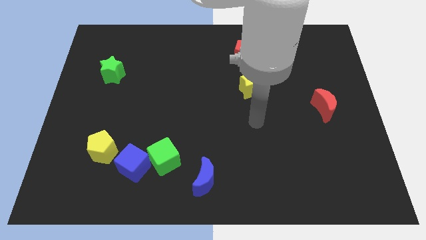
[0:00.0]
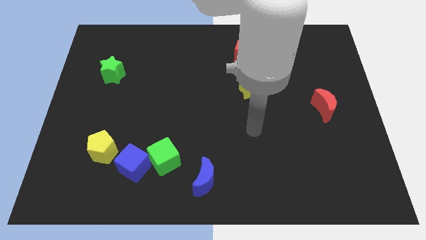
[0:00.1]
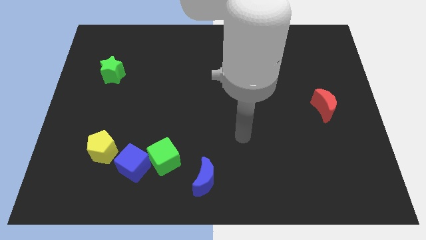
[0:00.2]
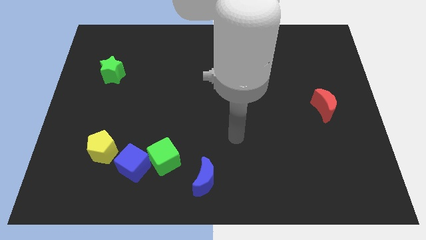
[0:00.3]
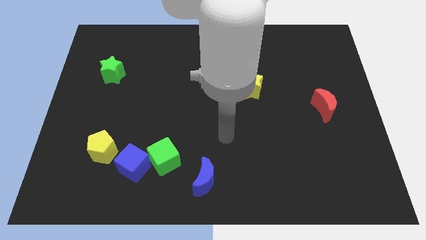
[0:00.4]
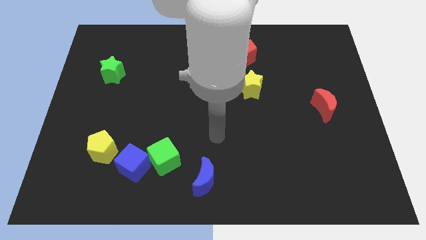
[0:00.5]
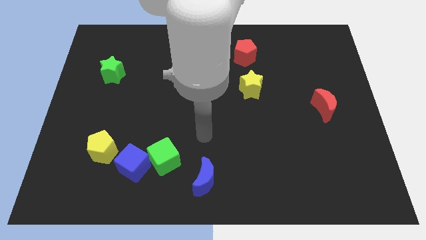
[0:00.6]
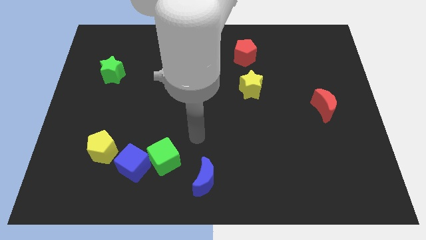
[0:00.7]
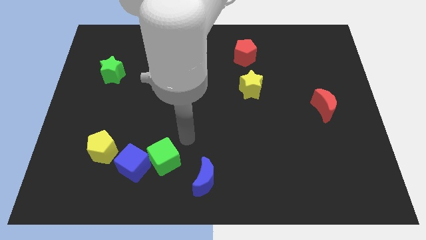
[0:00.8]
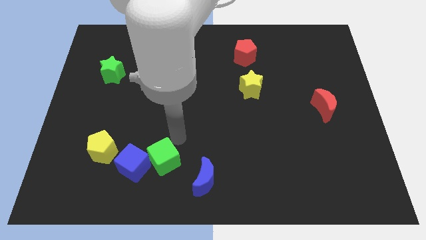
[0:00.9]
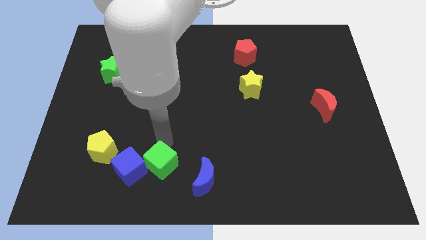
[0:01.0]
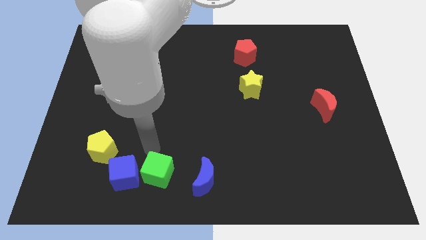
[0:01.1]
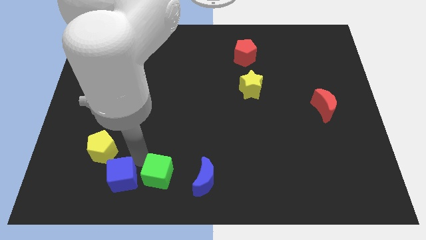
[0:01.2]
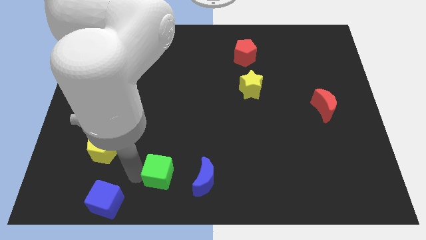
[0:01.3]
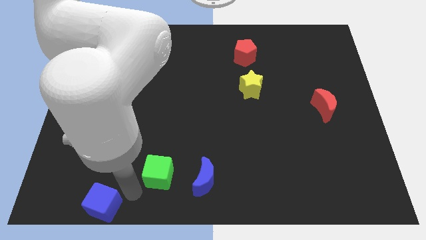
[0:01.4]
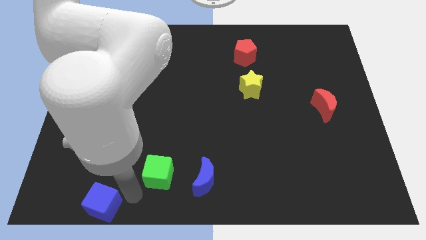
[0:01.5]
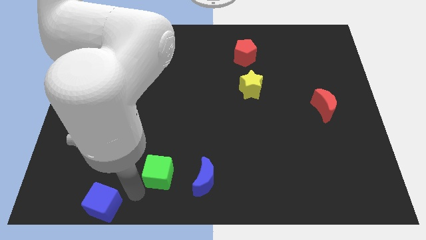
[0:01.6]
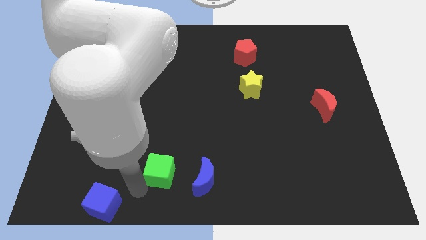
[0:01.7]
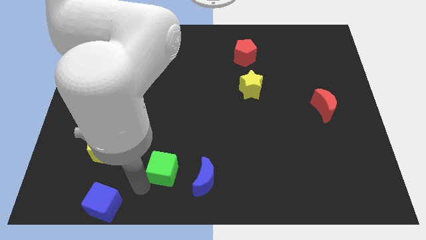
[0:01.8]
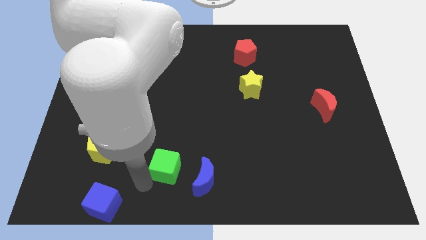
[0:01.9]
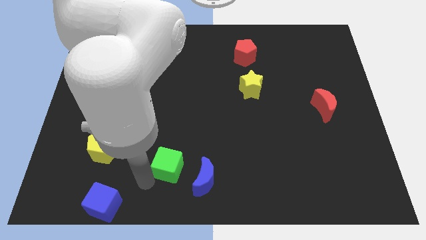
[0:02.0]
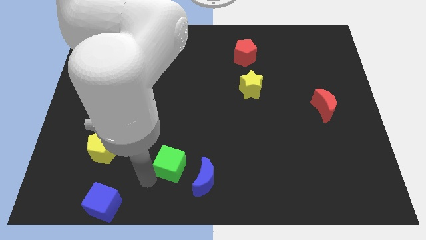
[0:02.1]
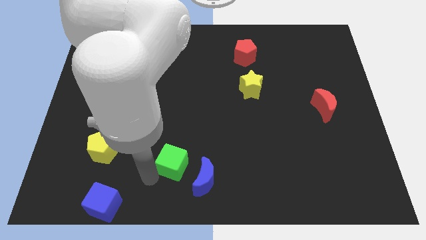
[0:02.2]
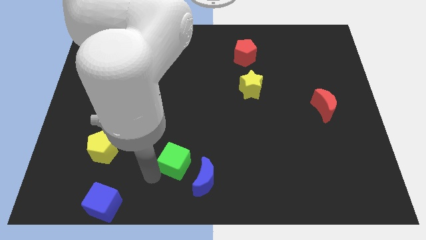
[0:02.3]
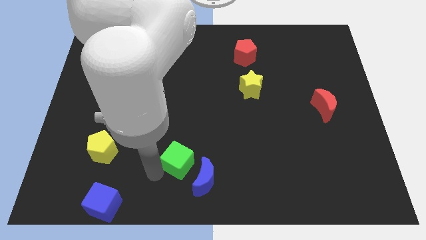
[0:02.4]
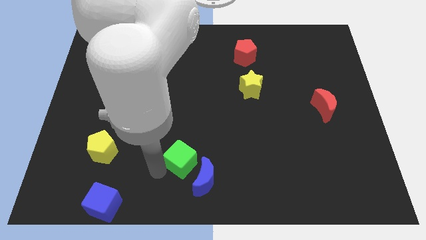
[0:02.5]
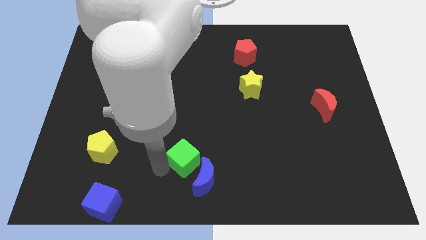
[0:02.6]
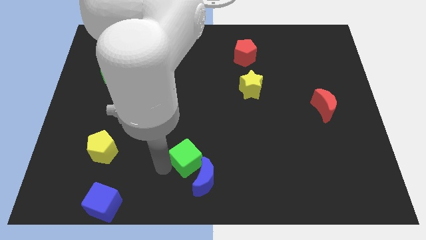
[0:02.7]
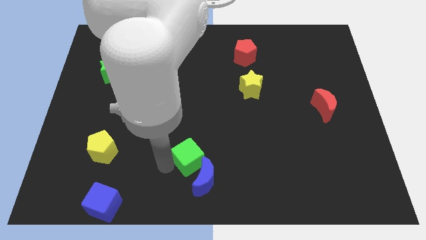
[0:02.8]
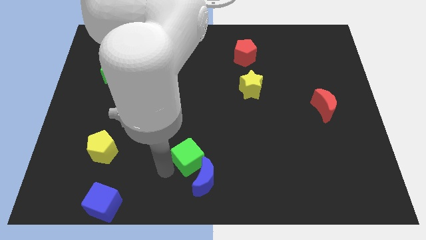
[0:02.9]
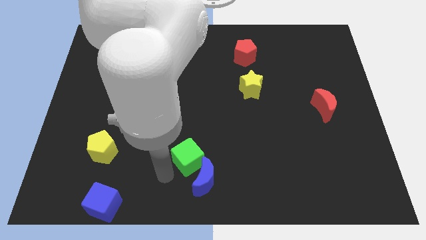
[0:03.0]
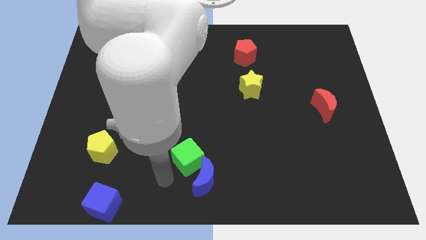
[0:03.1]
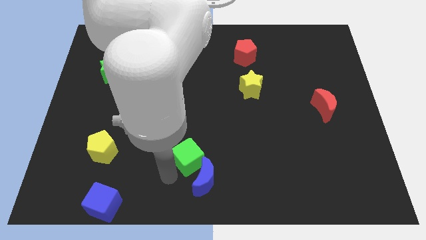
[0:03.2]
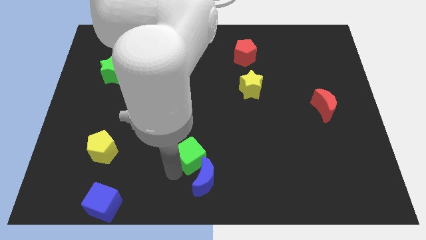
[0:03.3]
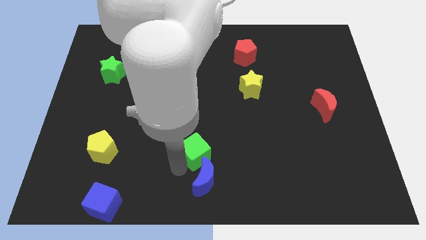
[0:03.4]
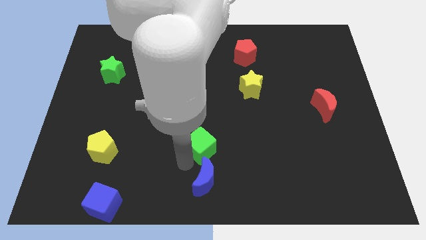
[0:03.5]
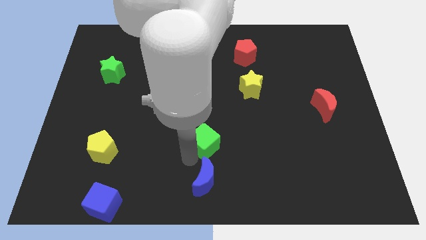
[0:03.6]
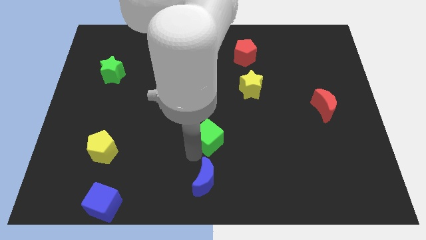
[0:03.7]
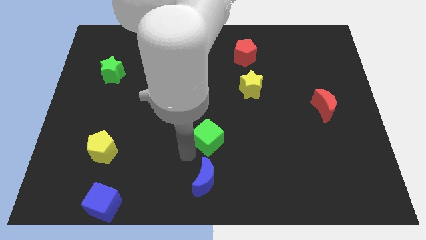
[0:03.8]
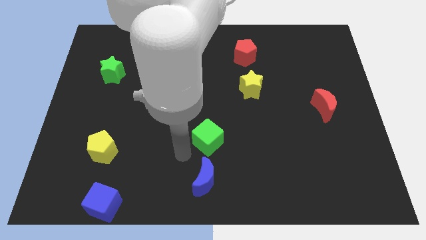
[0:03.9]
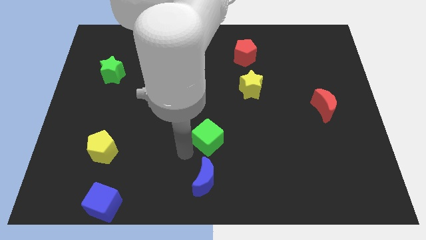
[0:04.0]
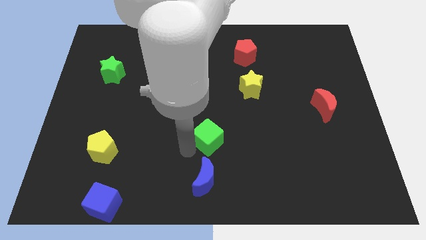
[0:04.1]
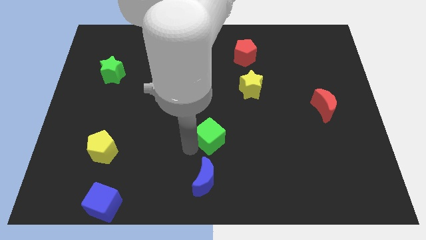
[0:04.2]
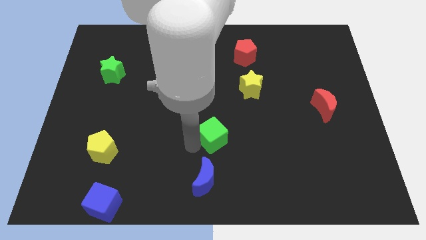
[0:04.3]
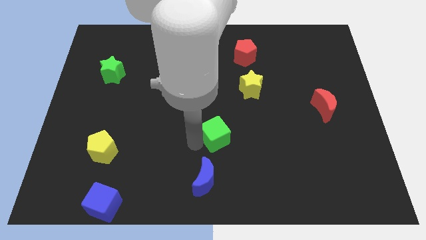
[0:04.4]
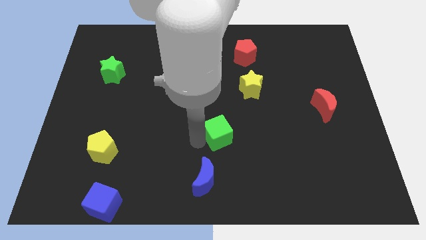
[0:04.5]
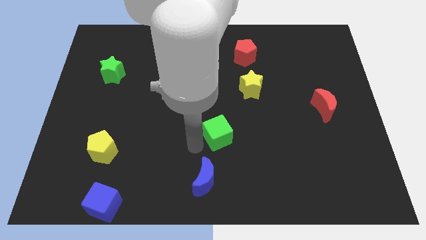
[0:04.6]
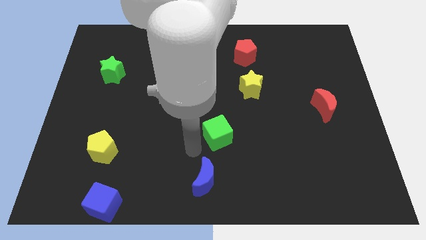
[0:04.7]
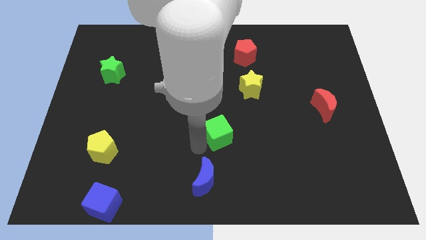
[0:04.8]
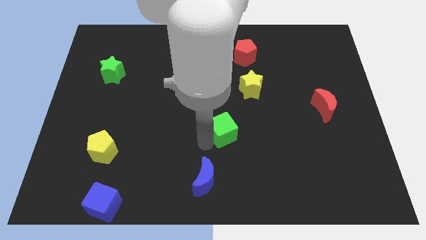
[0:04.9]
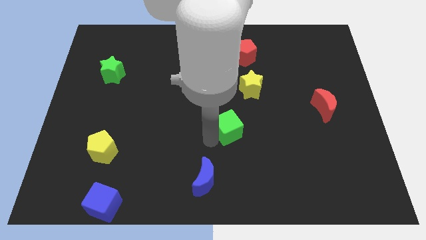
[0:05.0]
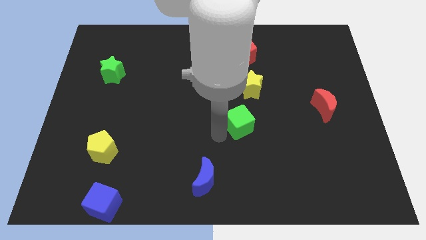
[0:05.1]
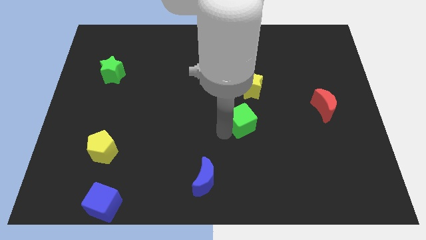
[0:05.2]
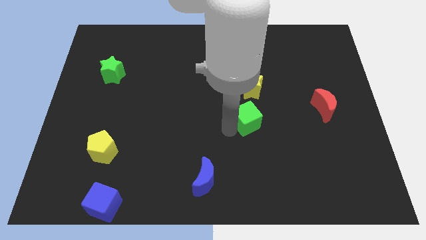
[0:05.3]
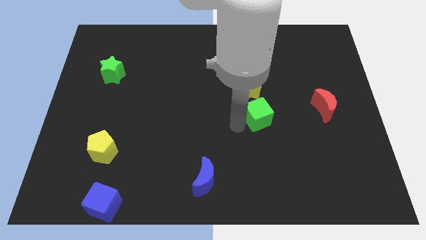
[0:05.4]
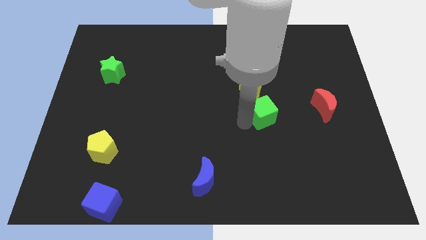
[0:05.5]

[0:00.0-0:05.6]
put the green cube to the left side of the red moon

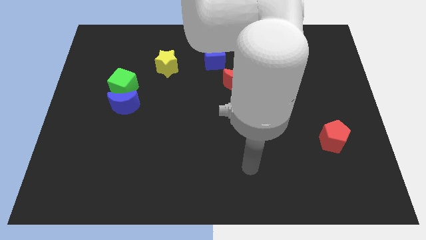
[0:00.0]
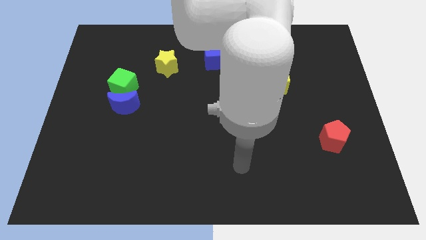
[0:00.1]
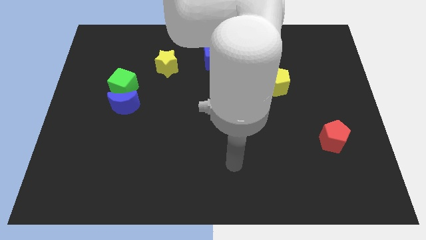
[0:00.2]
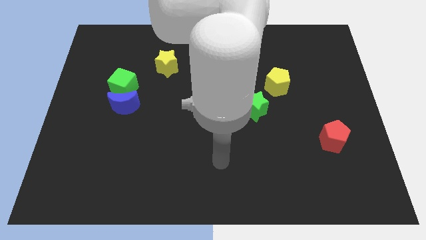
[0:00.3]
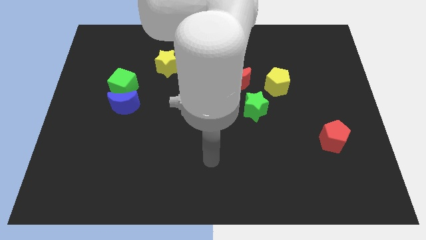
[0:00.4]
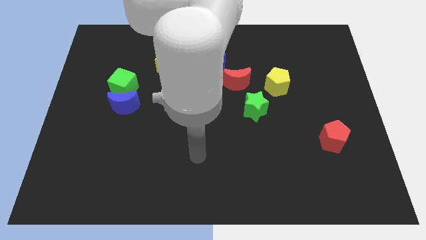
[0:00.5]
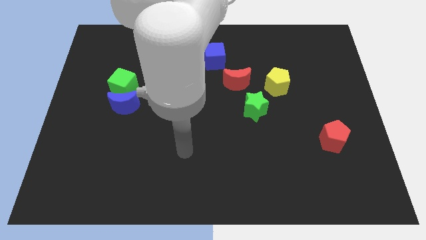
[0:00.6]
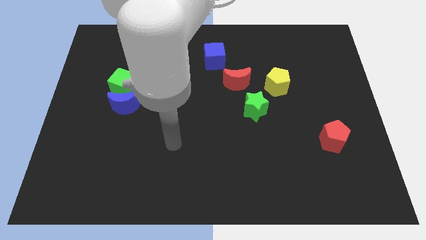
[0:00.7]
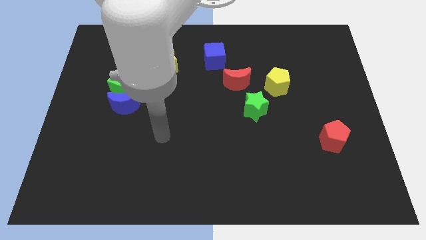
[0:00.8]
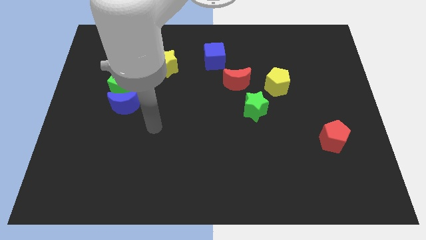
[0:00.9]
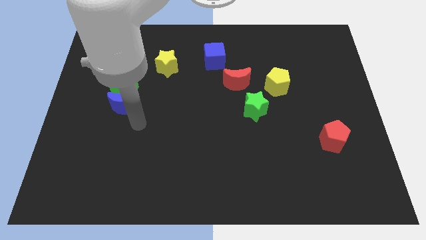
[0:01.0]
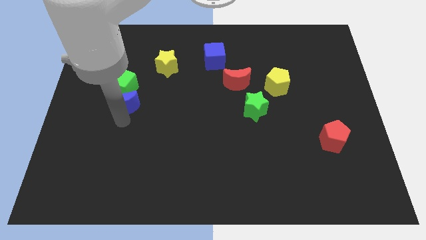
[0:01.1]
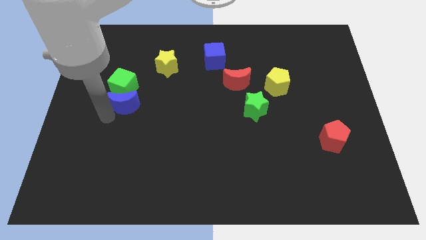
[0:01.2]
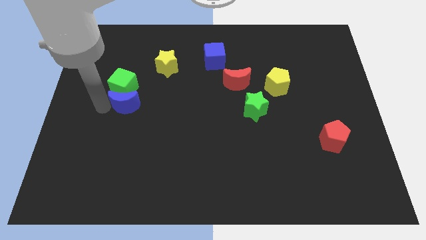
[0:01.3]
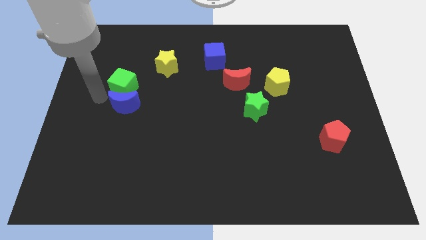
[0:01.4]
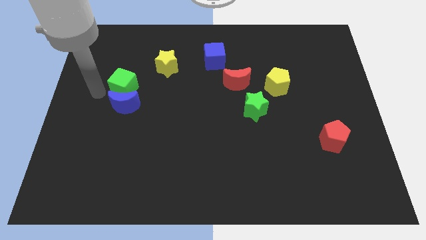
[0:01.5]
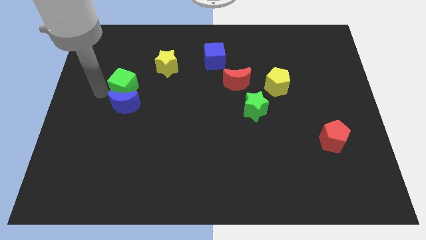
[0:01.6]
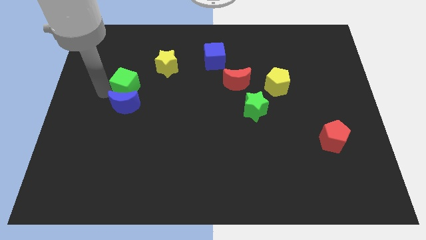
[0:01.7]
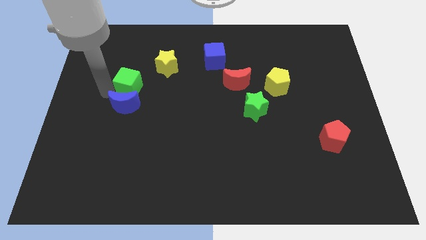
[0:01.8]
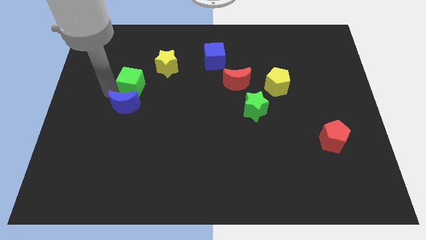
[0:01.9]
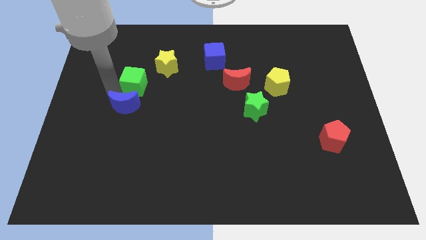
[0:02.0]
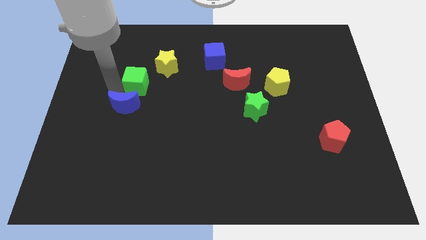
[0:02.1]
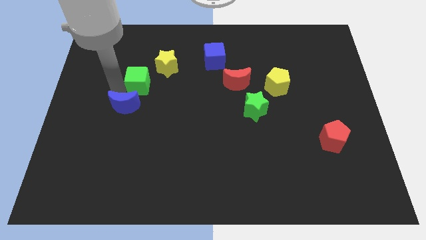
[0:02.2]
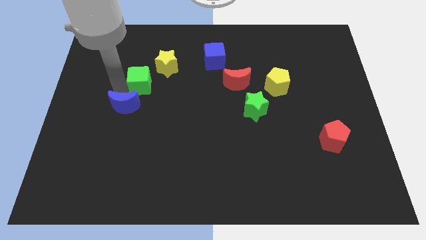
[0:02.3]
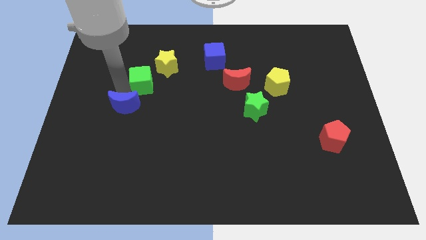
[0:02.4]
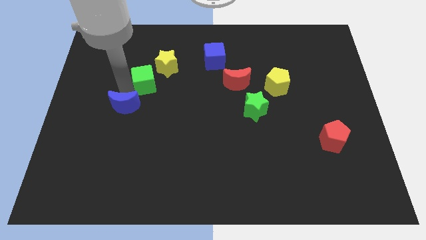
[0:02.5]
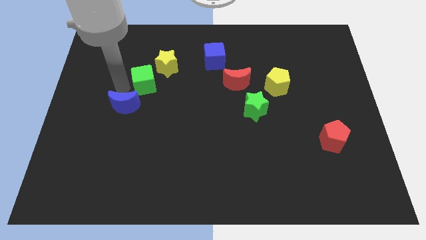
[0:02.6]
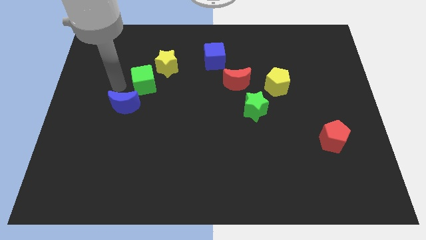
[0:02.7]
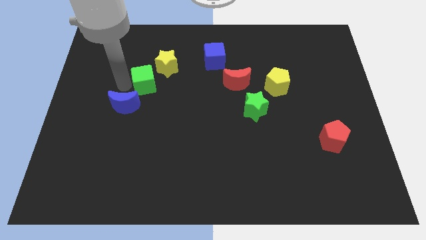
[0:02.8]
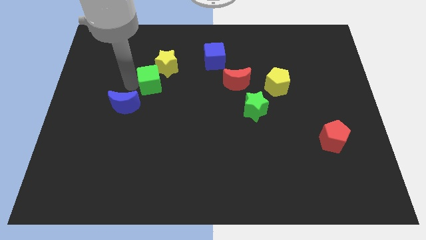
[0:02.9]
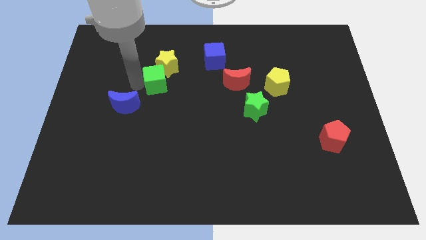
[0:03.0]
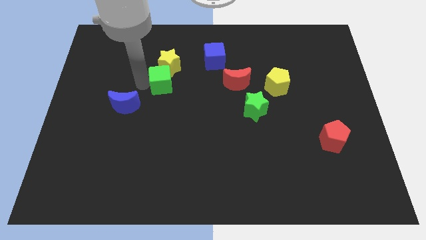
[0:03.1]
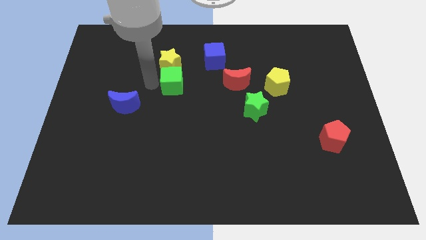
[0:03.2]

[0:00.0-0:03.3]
move the green cube to the left of the red moon
